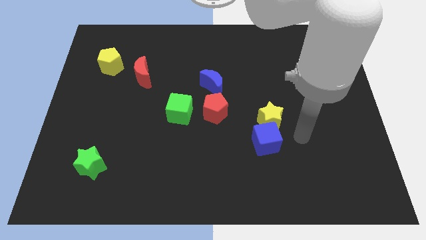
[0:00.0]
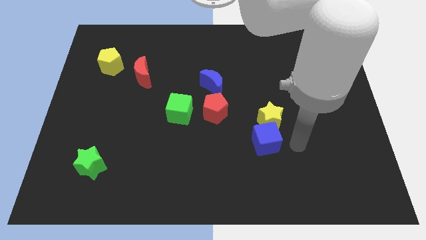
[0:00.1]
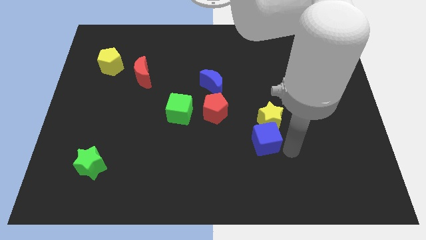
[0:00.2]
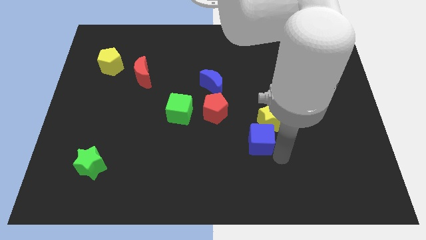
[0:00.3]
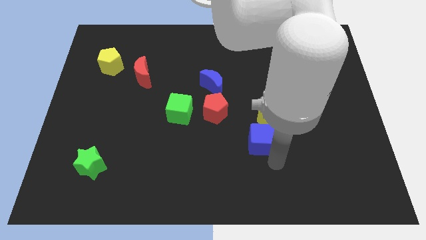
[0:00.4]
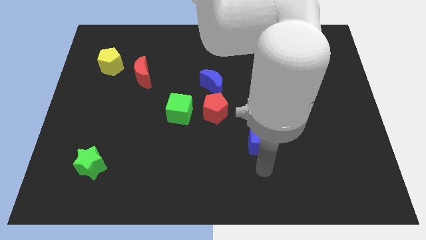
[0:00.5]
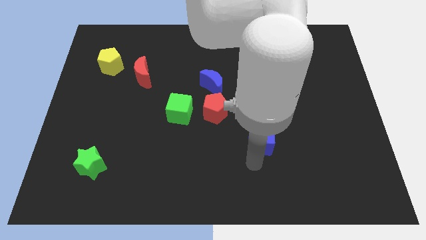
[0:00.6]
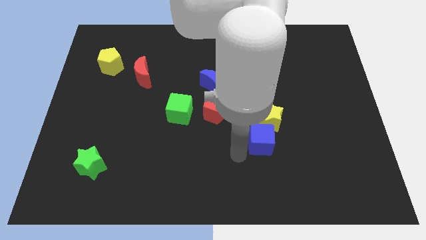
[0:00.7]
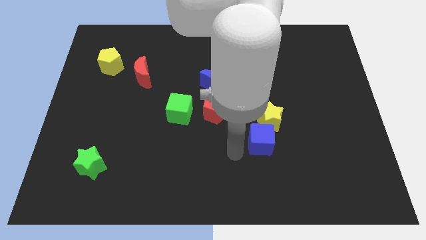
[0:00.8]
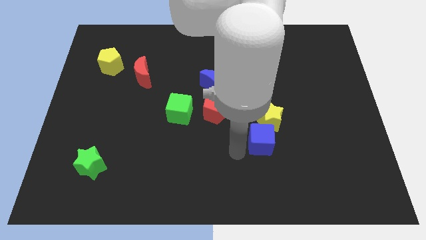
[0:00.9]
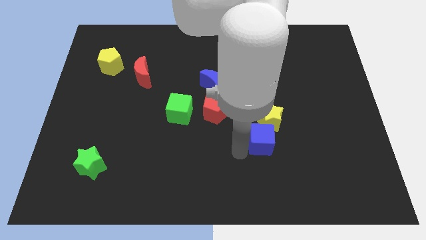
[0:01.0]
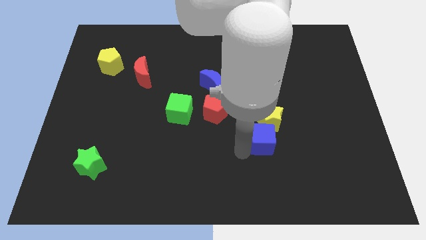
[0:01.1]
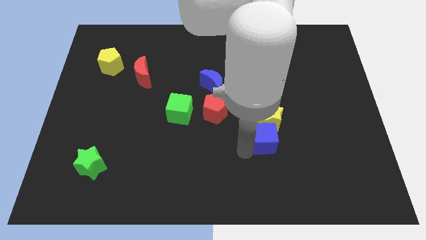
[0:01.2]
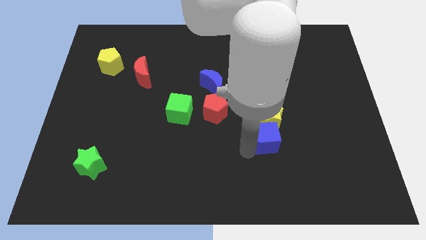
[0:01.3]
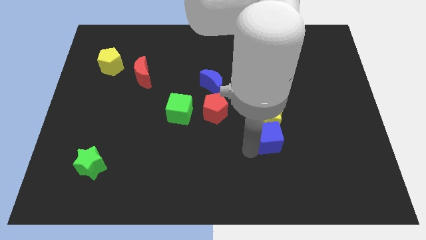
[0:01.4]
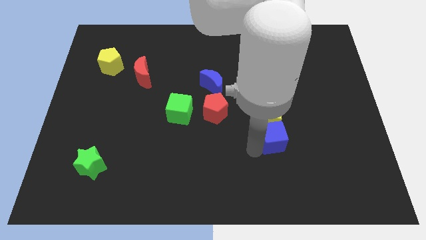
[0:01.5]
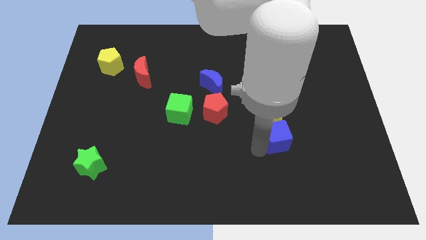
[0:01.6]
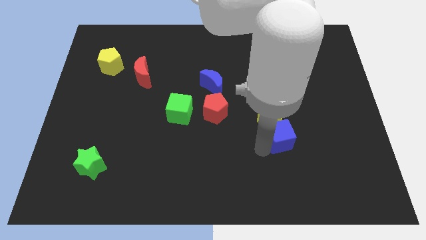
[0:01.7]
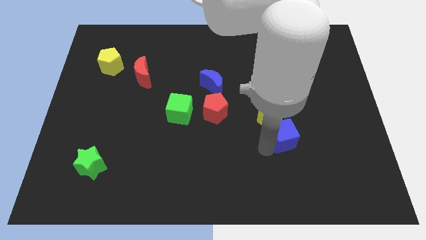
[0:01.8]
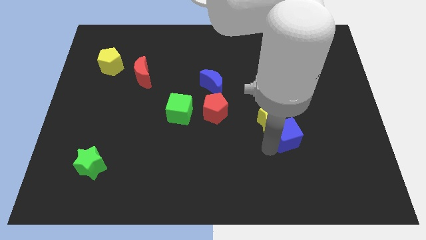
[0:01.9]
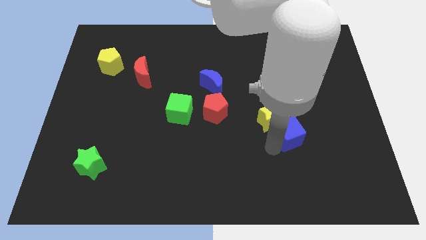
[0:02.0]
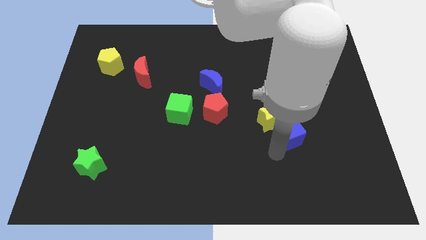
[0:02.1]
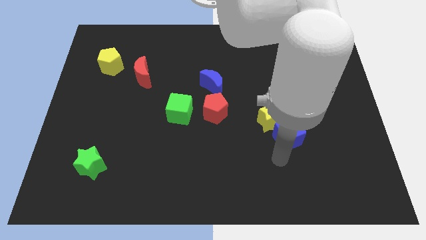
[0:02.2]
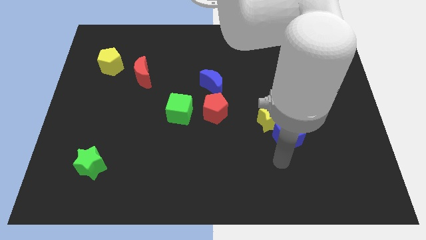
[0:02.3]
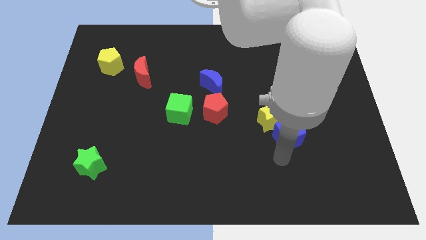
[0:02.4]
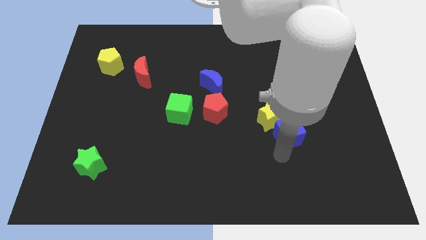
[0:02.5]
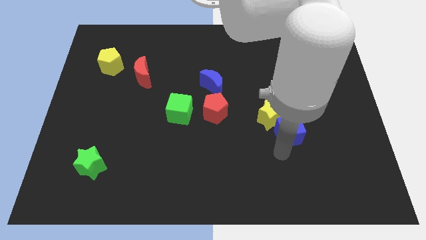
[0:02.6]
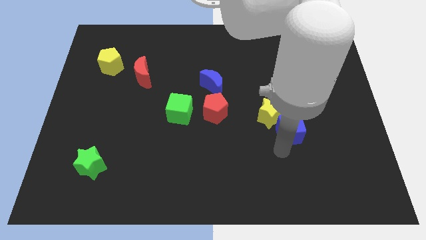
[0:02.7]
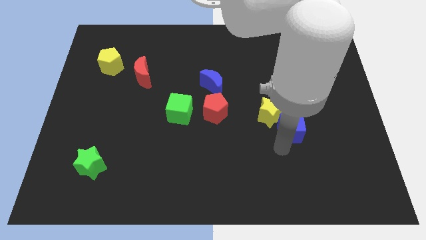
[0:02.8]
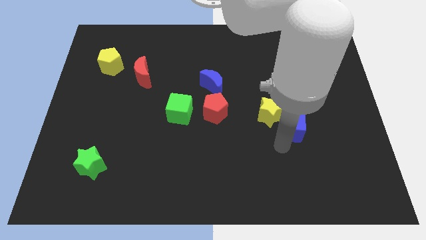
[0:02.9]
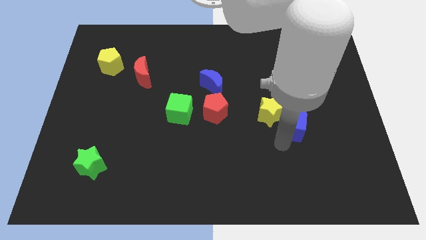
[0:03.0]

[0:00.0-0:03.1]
push the blue cube diagonally upwards and right a little

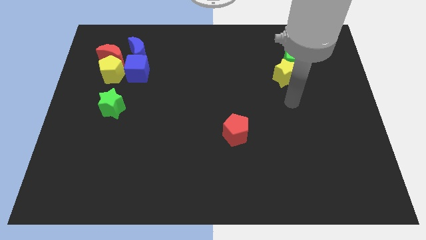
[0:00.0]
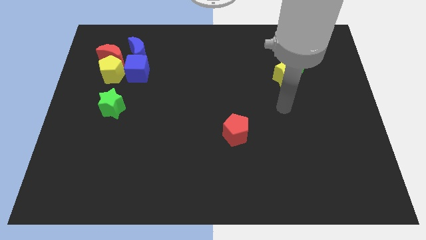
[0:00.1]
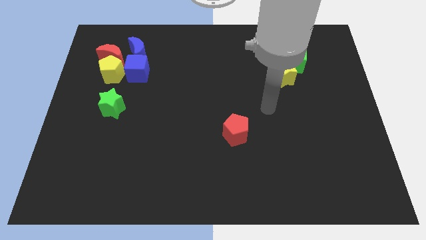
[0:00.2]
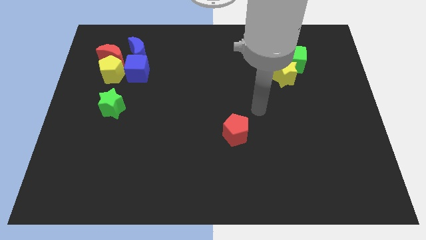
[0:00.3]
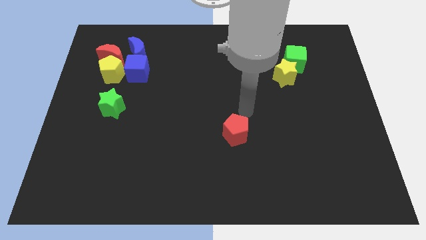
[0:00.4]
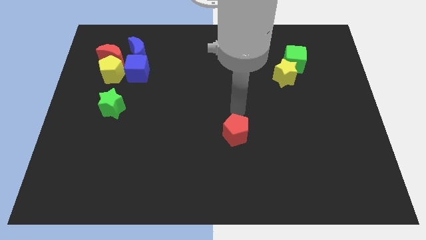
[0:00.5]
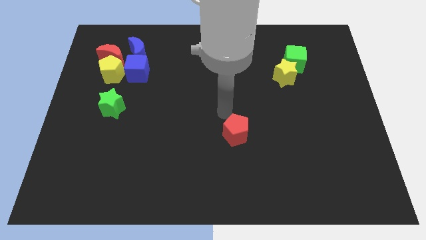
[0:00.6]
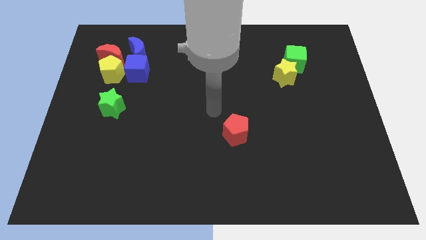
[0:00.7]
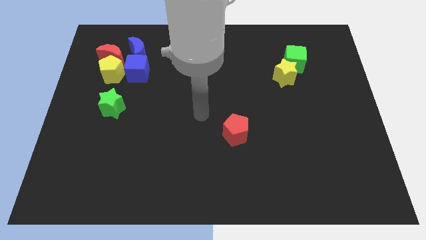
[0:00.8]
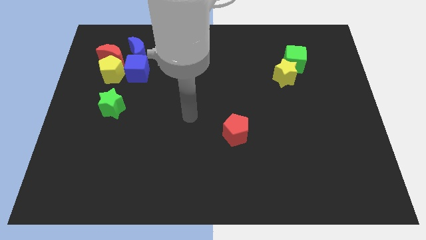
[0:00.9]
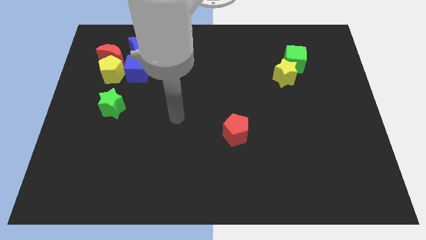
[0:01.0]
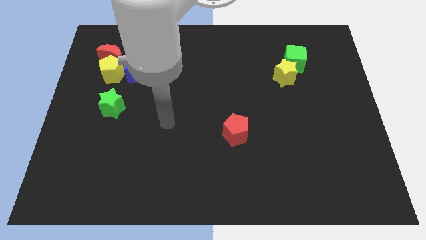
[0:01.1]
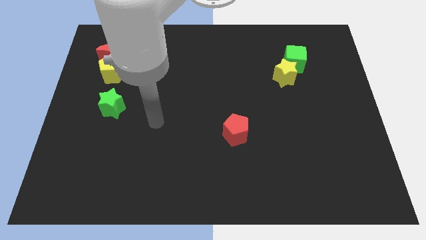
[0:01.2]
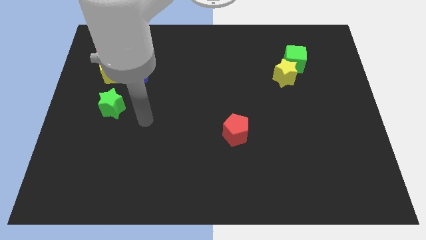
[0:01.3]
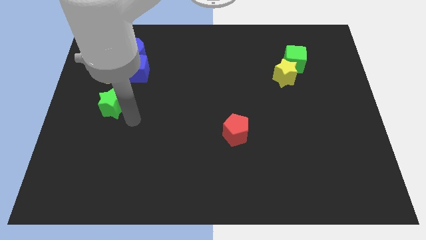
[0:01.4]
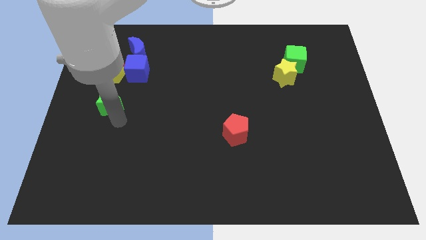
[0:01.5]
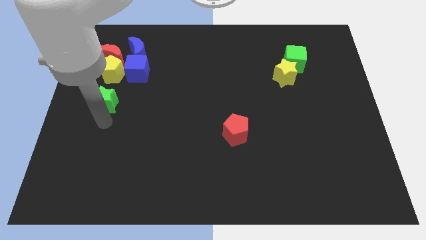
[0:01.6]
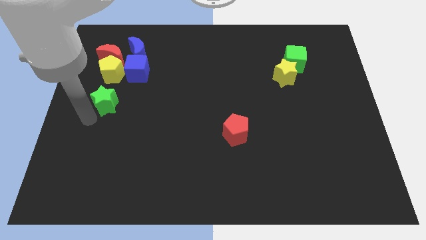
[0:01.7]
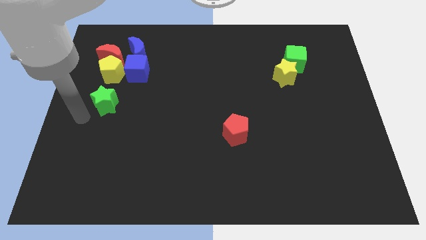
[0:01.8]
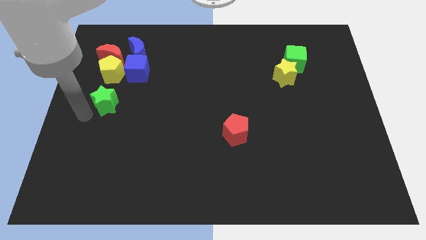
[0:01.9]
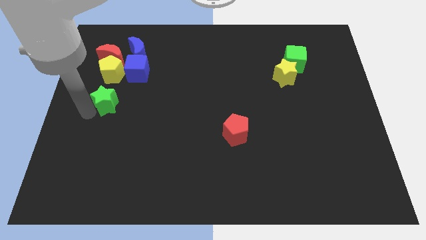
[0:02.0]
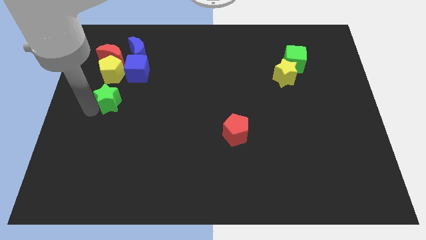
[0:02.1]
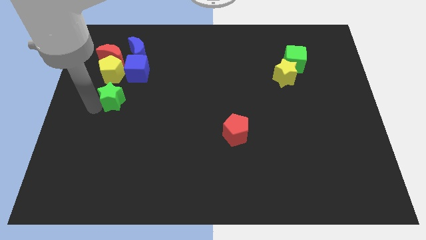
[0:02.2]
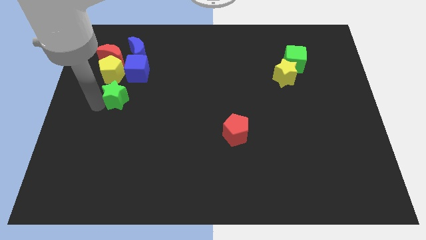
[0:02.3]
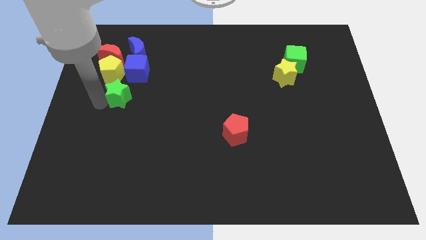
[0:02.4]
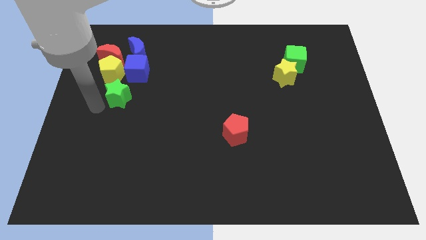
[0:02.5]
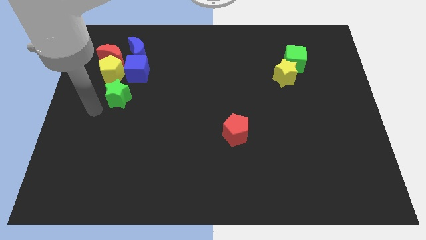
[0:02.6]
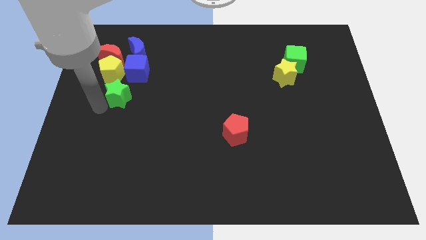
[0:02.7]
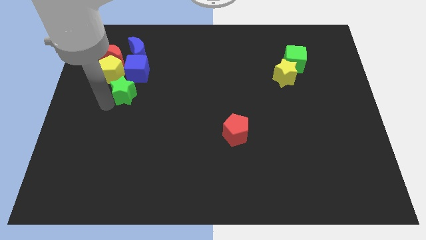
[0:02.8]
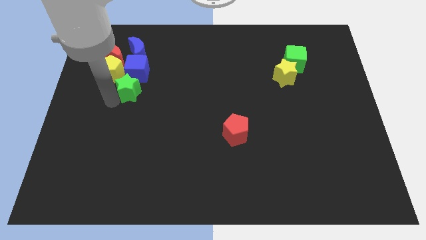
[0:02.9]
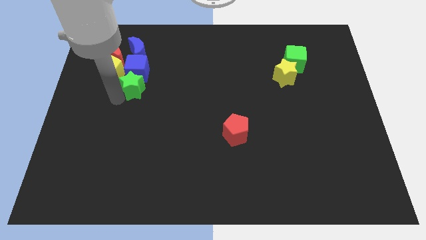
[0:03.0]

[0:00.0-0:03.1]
move the green star a little up and then right

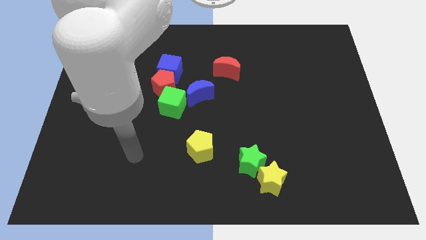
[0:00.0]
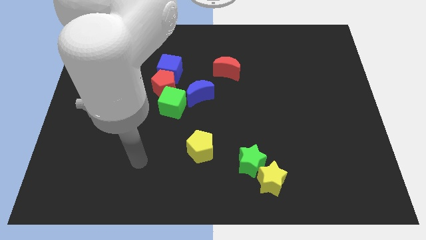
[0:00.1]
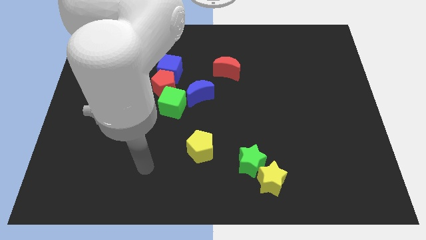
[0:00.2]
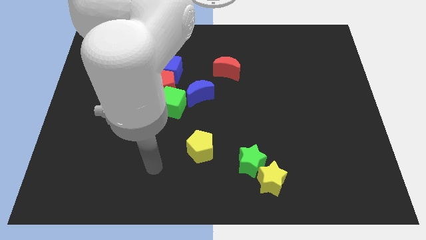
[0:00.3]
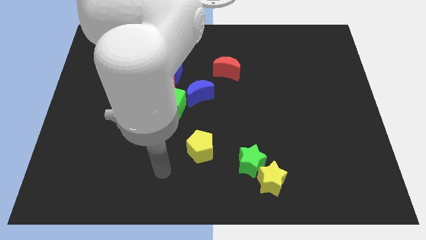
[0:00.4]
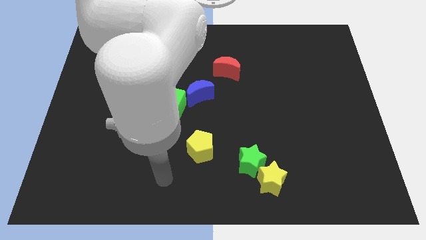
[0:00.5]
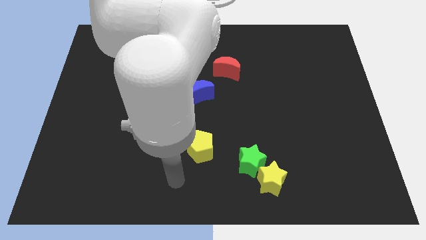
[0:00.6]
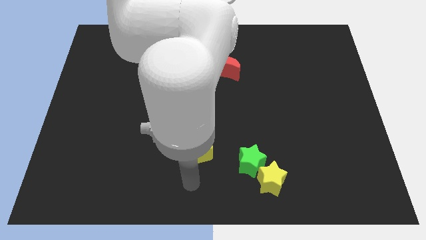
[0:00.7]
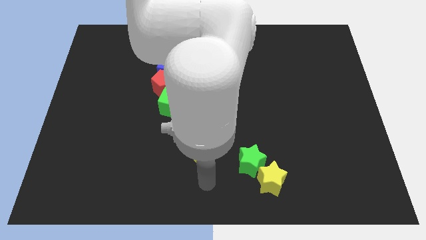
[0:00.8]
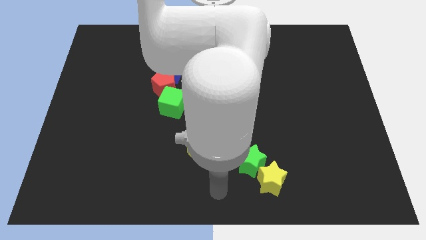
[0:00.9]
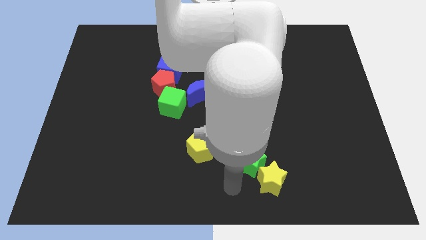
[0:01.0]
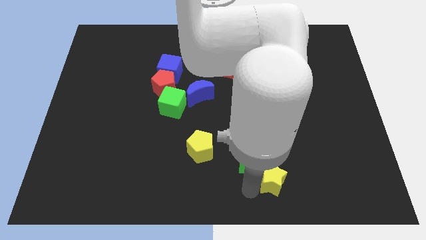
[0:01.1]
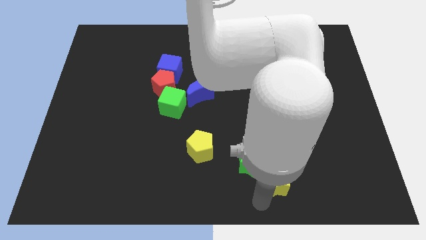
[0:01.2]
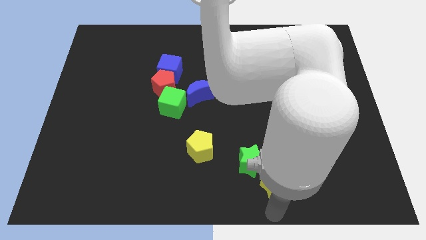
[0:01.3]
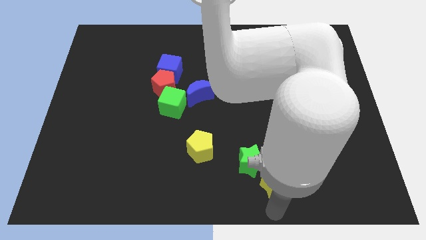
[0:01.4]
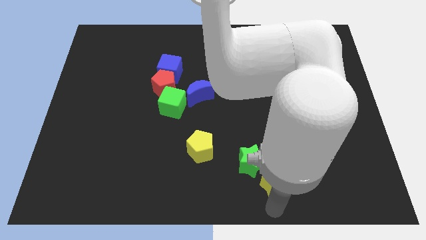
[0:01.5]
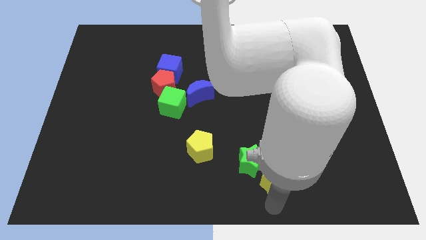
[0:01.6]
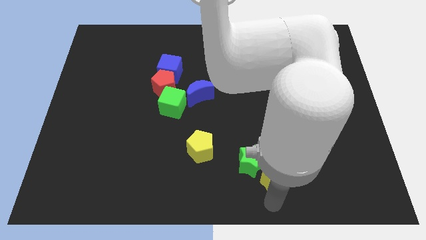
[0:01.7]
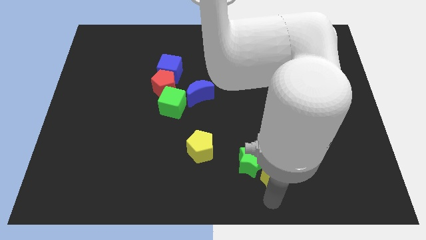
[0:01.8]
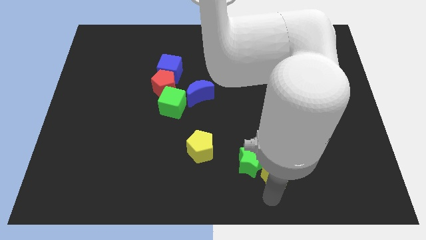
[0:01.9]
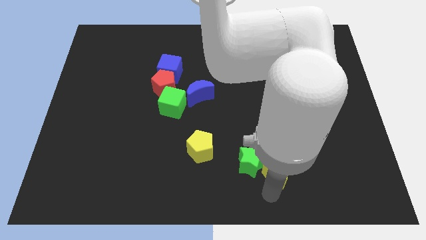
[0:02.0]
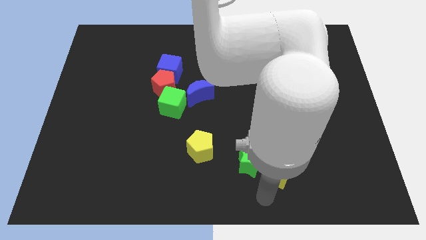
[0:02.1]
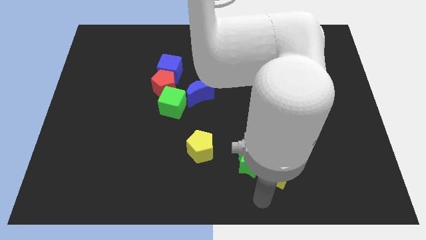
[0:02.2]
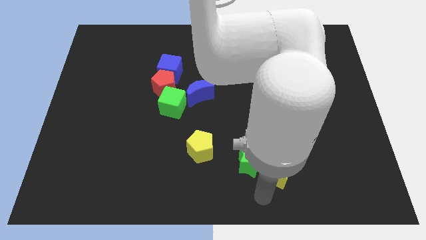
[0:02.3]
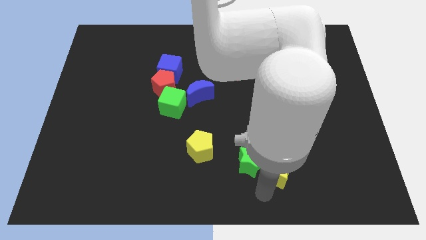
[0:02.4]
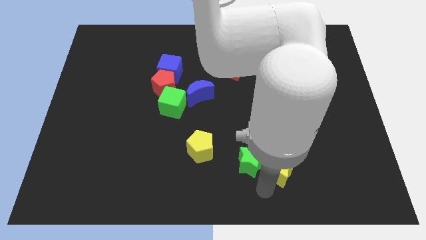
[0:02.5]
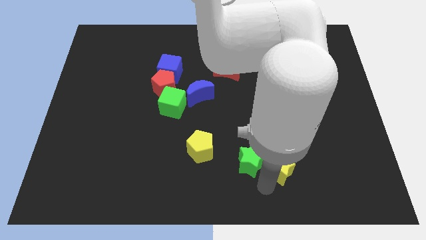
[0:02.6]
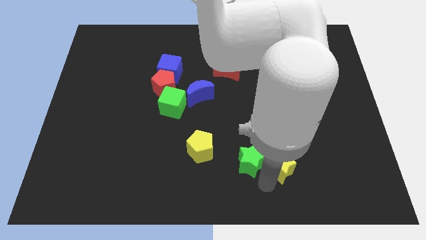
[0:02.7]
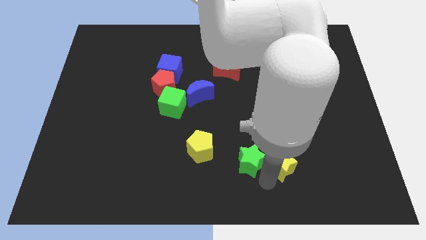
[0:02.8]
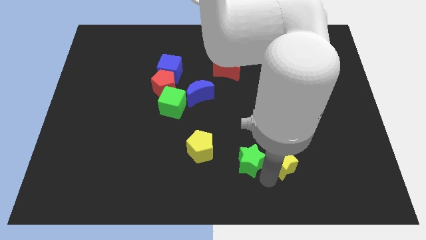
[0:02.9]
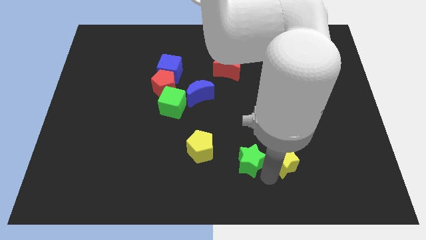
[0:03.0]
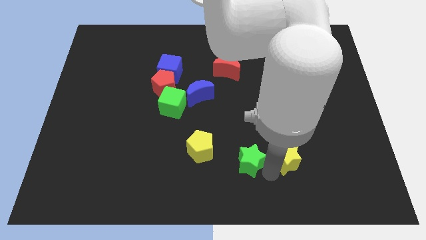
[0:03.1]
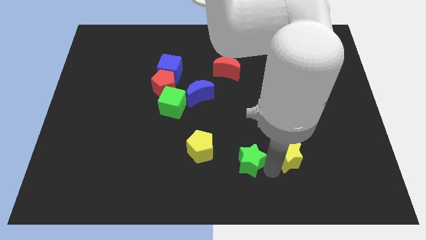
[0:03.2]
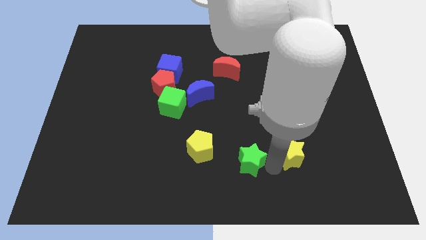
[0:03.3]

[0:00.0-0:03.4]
move the yellow star a little diagonally up and right
